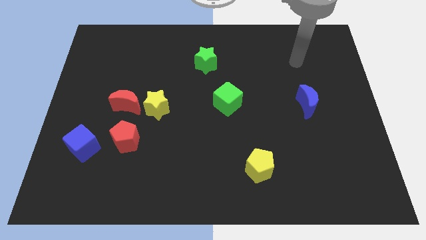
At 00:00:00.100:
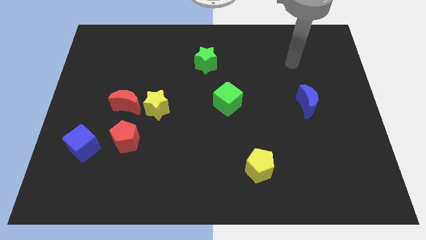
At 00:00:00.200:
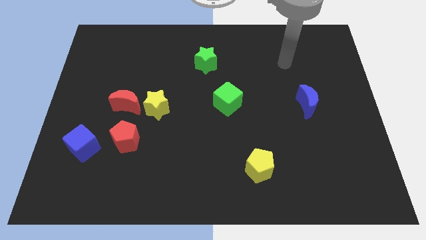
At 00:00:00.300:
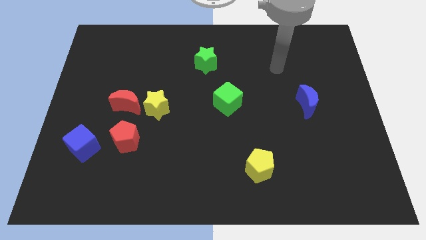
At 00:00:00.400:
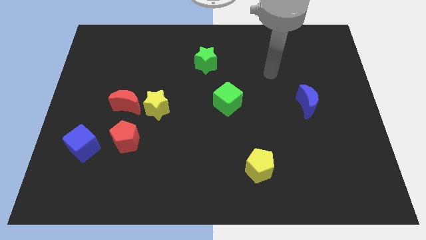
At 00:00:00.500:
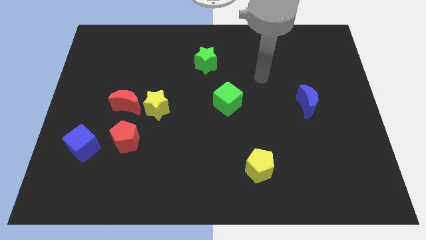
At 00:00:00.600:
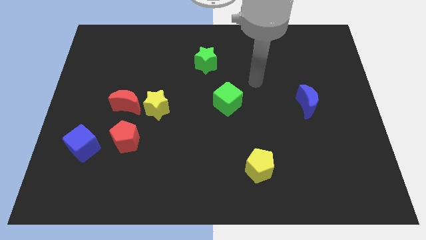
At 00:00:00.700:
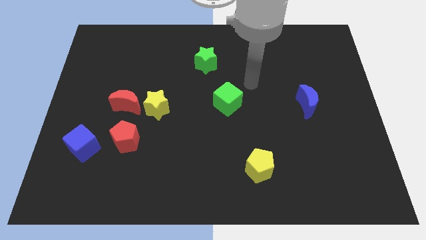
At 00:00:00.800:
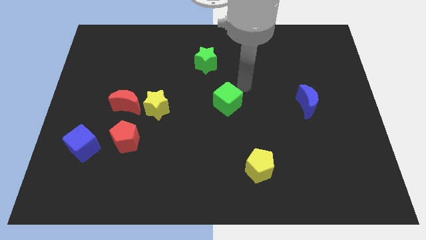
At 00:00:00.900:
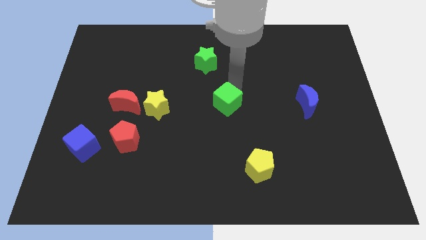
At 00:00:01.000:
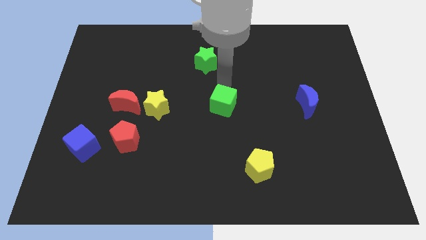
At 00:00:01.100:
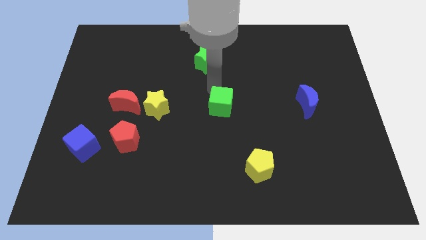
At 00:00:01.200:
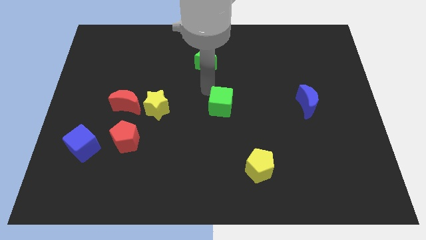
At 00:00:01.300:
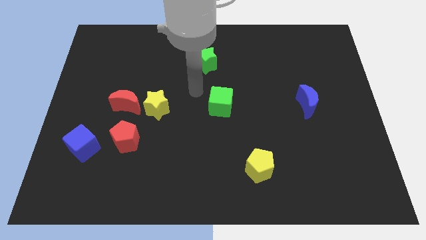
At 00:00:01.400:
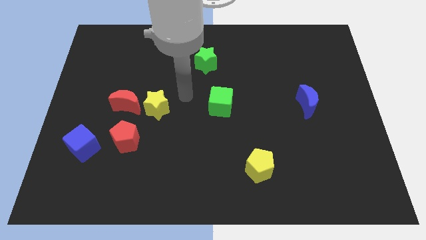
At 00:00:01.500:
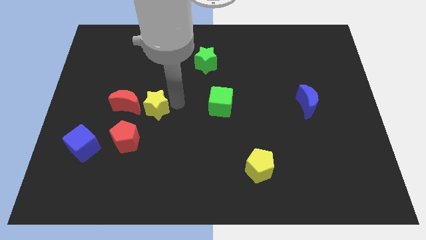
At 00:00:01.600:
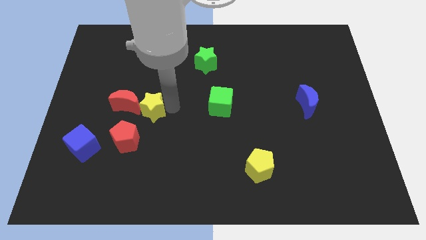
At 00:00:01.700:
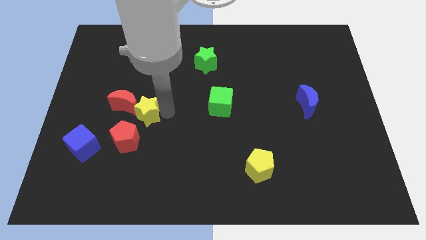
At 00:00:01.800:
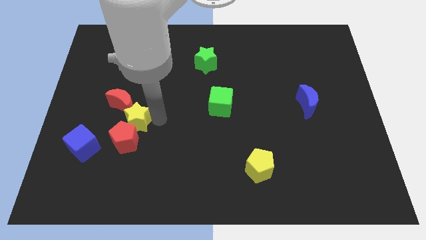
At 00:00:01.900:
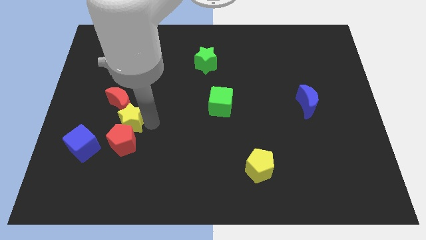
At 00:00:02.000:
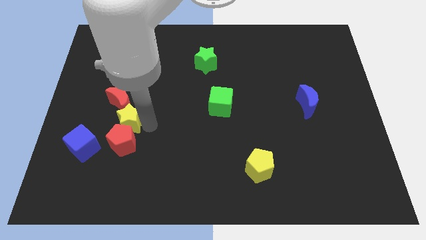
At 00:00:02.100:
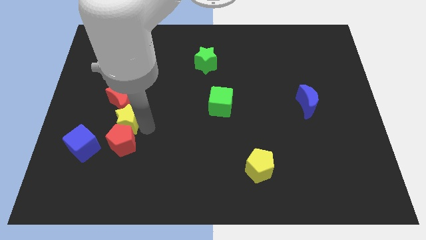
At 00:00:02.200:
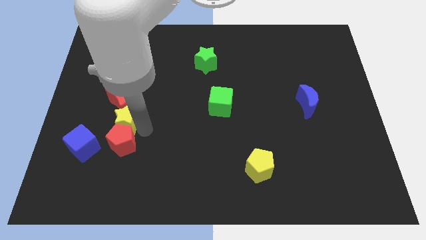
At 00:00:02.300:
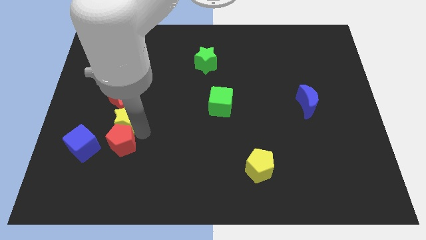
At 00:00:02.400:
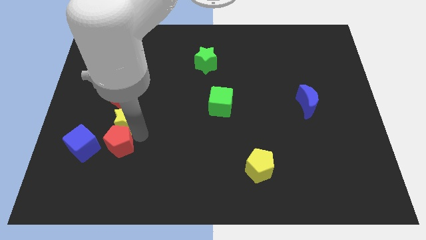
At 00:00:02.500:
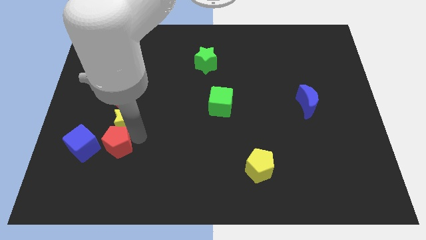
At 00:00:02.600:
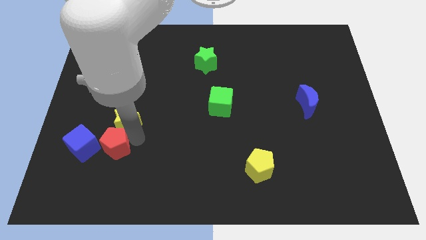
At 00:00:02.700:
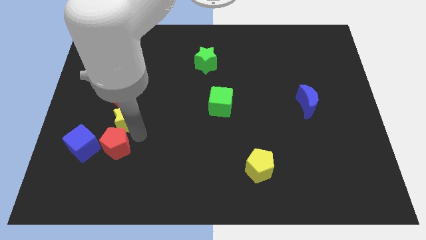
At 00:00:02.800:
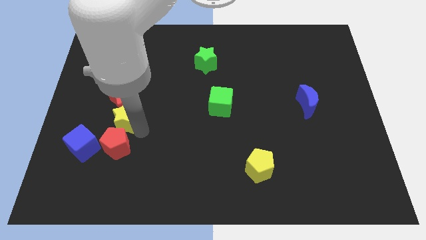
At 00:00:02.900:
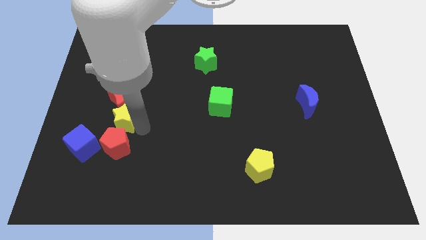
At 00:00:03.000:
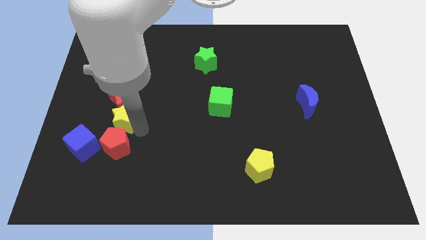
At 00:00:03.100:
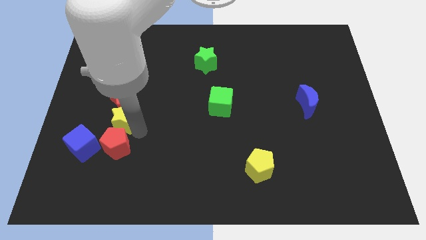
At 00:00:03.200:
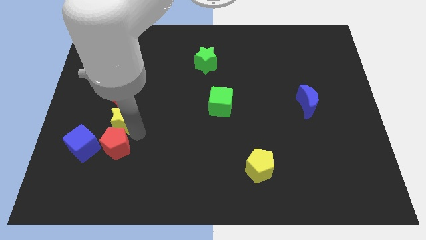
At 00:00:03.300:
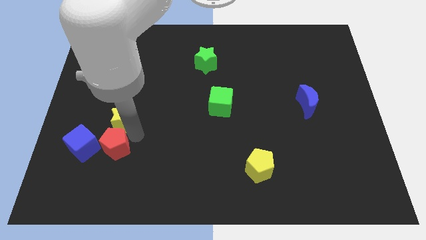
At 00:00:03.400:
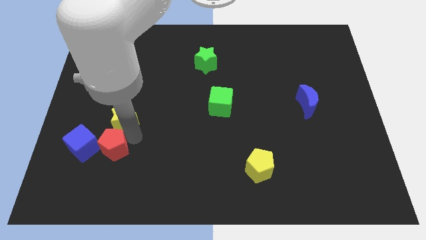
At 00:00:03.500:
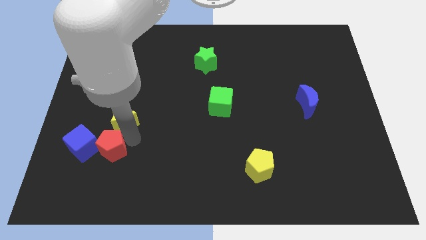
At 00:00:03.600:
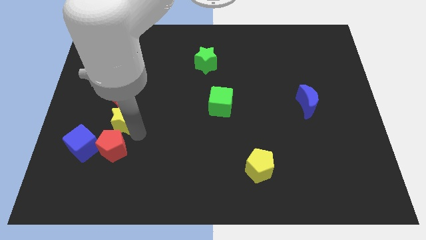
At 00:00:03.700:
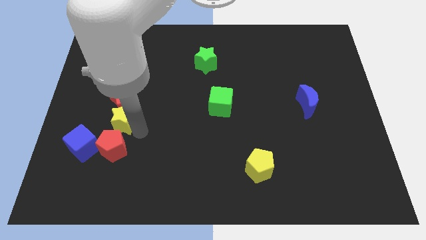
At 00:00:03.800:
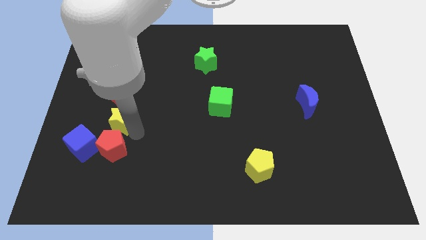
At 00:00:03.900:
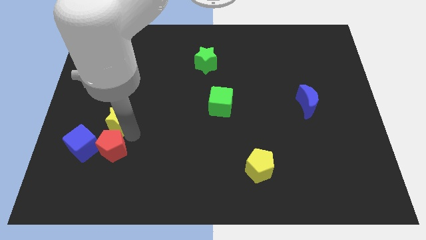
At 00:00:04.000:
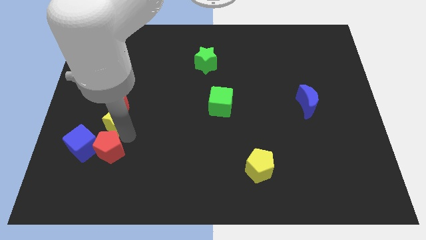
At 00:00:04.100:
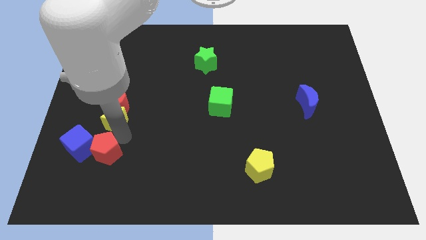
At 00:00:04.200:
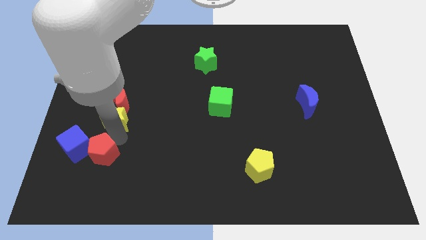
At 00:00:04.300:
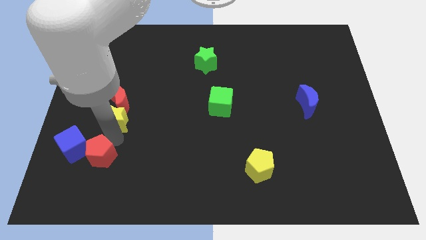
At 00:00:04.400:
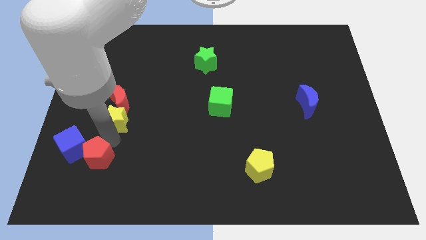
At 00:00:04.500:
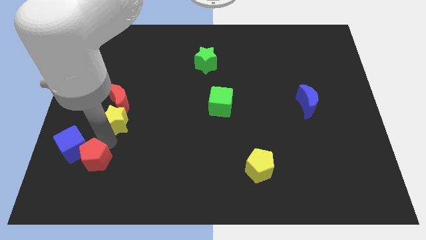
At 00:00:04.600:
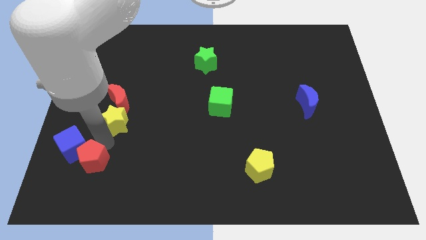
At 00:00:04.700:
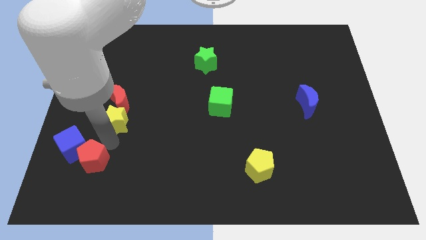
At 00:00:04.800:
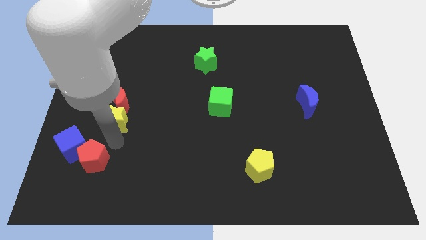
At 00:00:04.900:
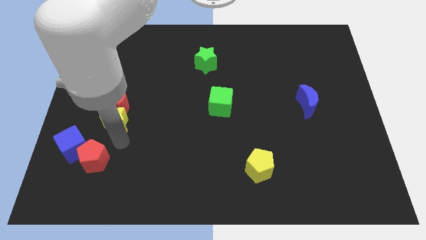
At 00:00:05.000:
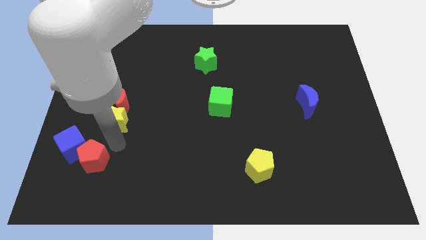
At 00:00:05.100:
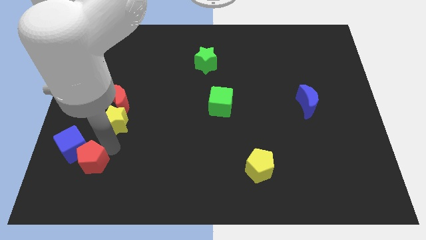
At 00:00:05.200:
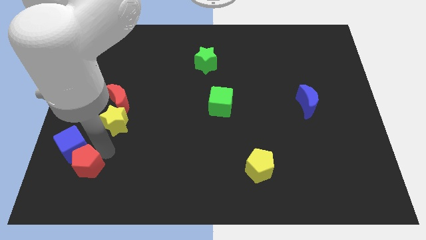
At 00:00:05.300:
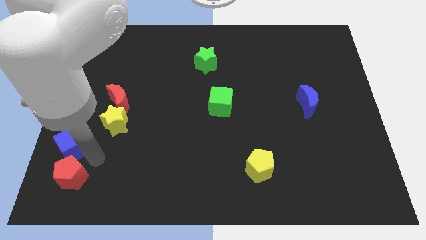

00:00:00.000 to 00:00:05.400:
put the red pentagon to the bottom left

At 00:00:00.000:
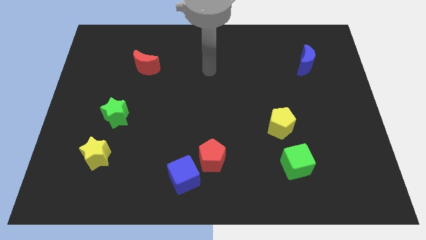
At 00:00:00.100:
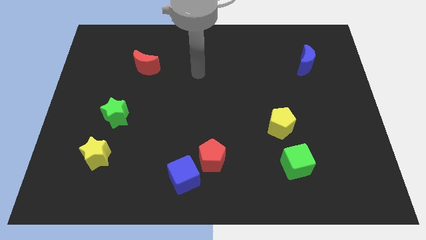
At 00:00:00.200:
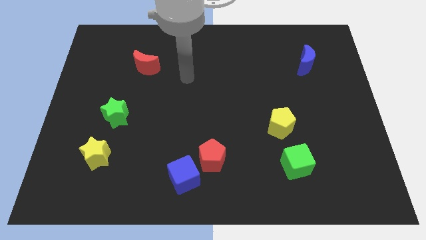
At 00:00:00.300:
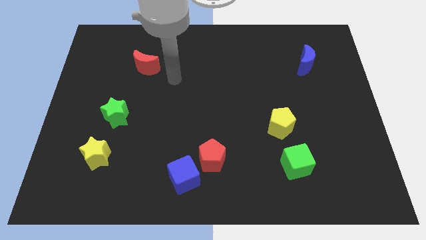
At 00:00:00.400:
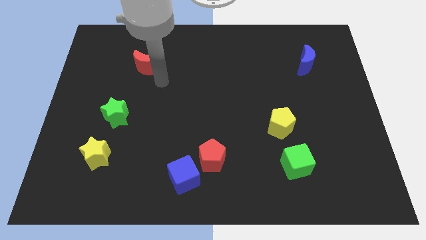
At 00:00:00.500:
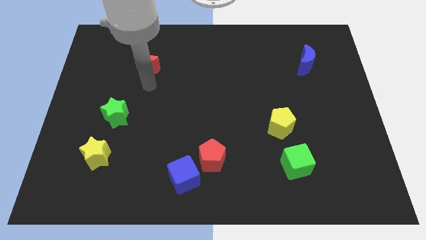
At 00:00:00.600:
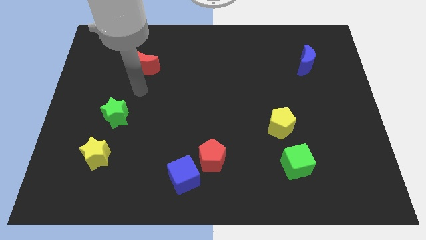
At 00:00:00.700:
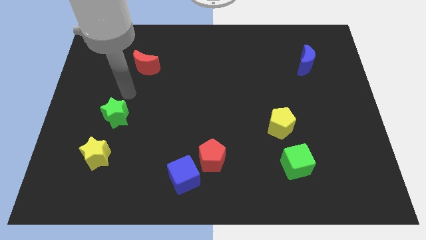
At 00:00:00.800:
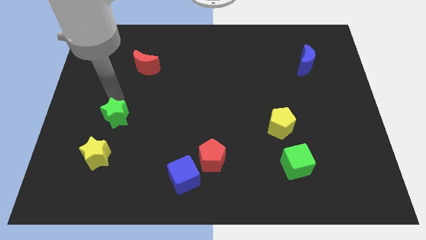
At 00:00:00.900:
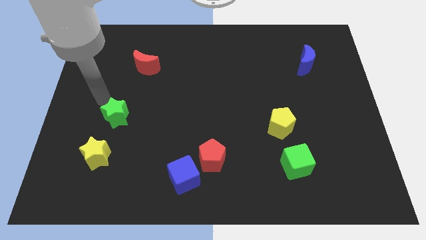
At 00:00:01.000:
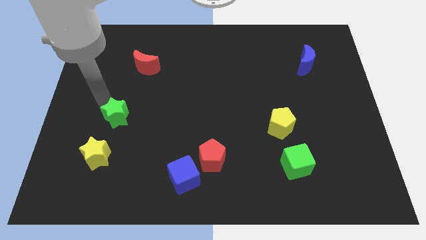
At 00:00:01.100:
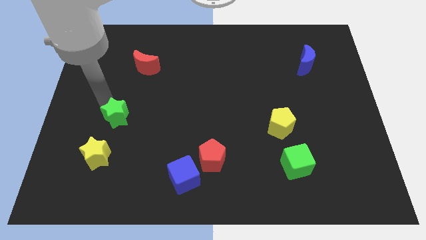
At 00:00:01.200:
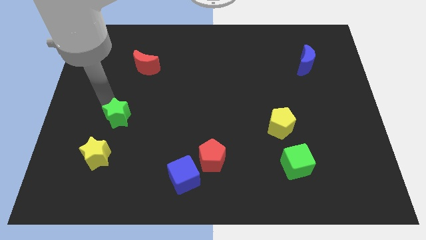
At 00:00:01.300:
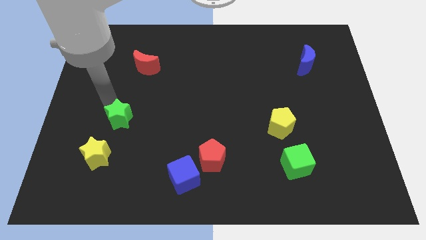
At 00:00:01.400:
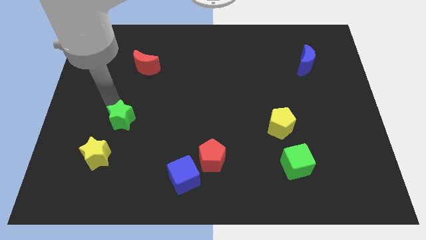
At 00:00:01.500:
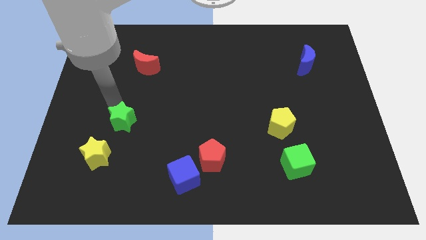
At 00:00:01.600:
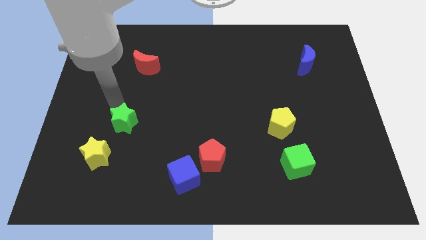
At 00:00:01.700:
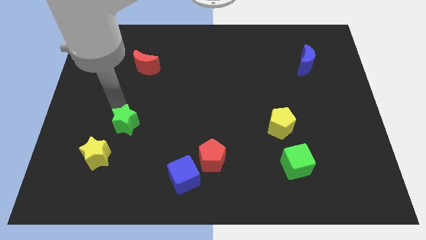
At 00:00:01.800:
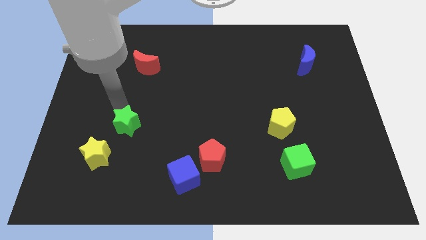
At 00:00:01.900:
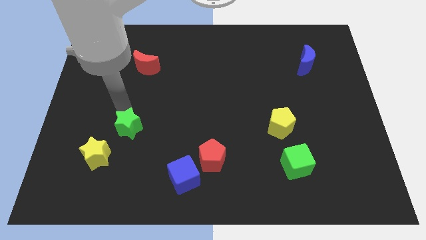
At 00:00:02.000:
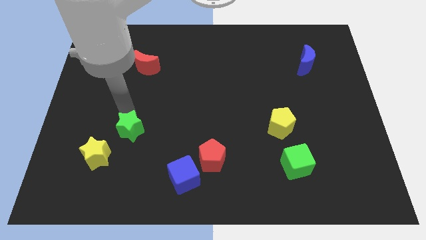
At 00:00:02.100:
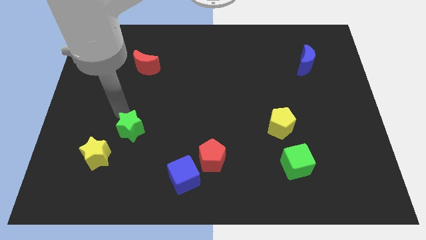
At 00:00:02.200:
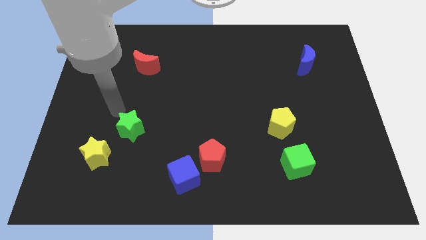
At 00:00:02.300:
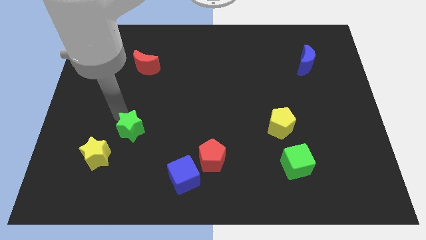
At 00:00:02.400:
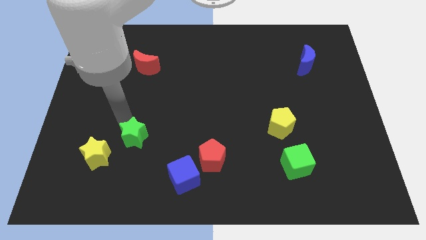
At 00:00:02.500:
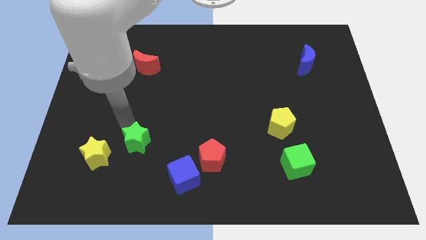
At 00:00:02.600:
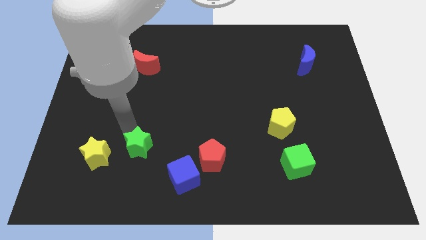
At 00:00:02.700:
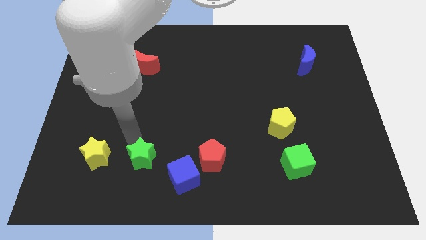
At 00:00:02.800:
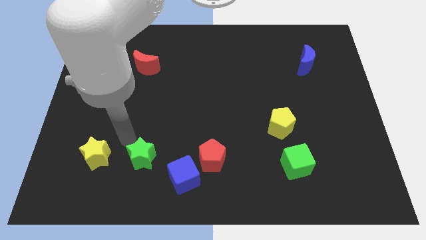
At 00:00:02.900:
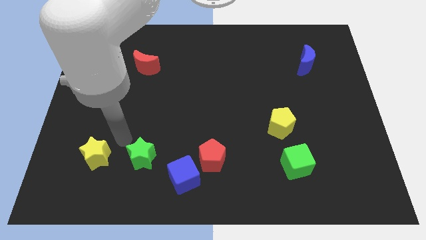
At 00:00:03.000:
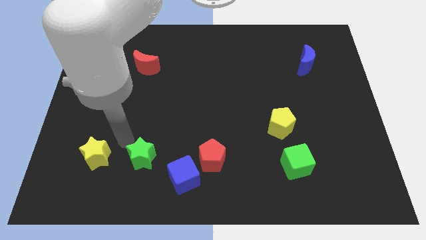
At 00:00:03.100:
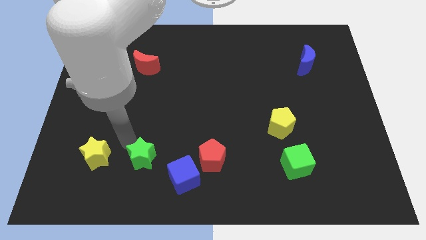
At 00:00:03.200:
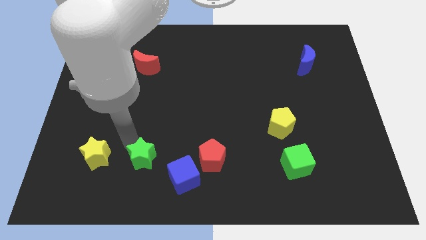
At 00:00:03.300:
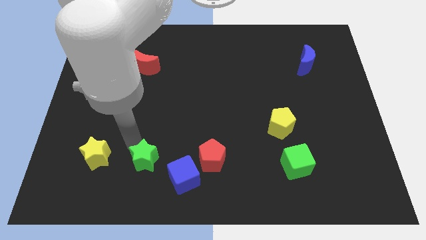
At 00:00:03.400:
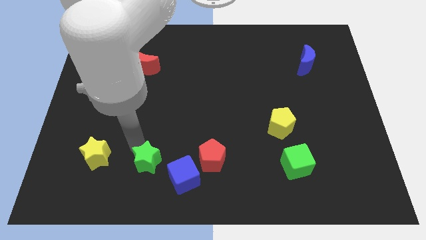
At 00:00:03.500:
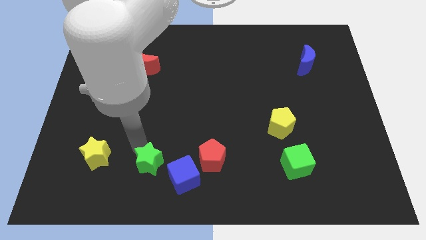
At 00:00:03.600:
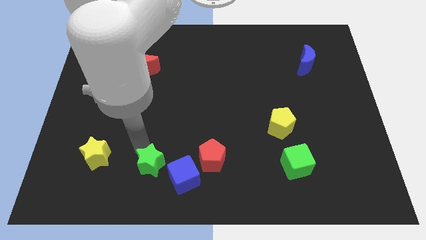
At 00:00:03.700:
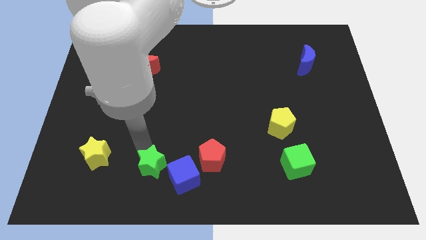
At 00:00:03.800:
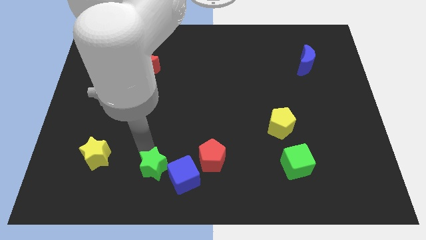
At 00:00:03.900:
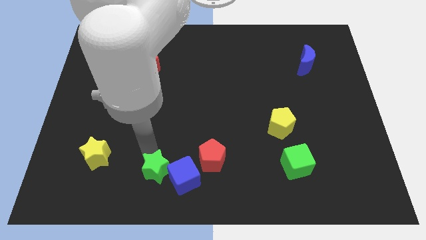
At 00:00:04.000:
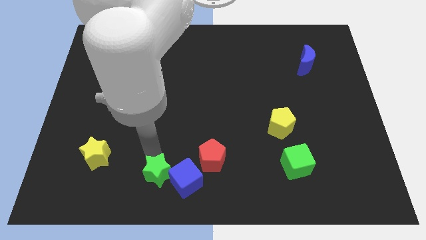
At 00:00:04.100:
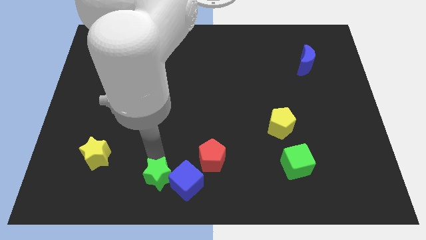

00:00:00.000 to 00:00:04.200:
push the green star to the bottom side
